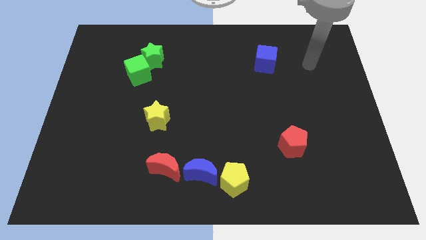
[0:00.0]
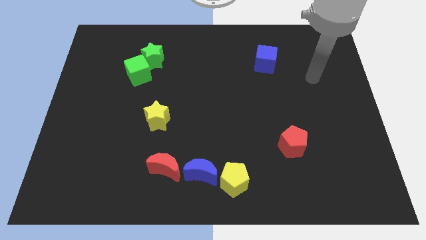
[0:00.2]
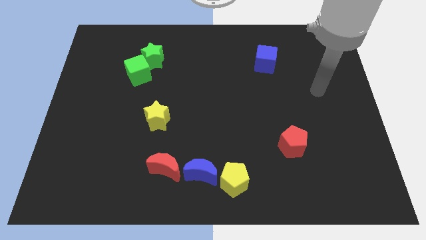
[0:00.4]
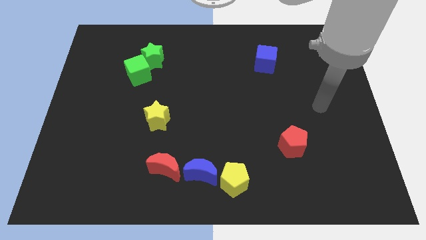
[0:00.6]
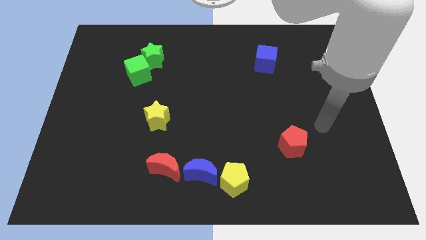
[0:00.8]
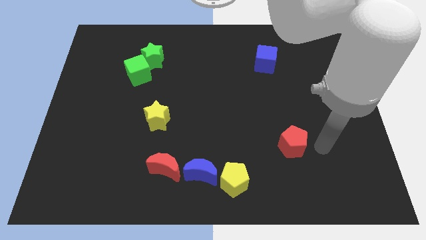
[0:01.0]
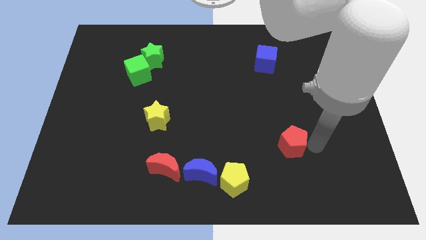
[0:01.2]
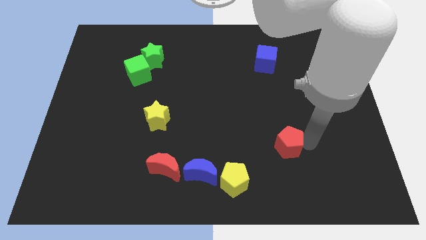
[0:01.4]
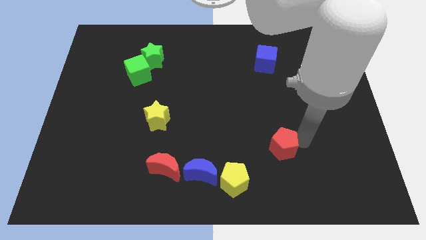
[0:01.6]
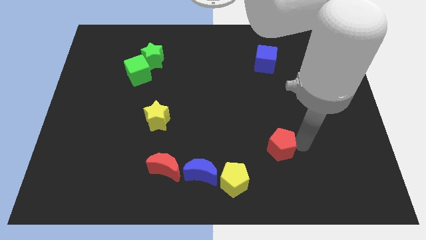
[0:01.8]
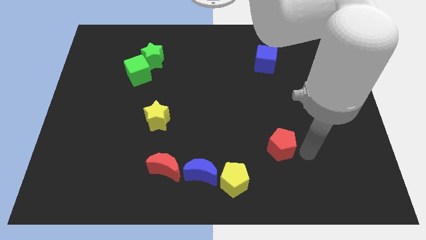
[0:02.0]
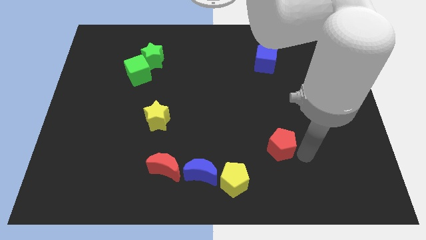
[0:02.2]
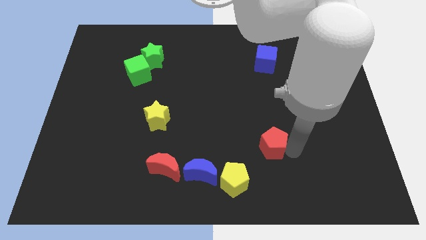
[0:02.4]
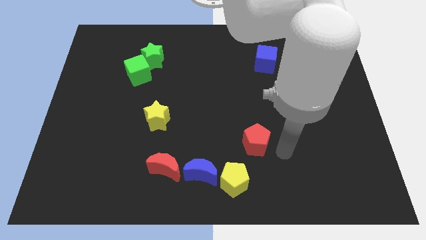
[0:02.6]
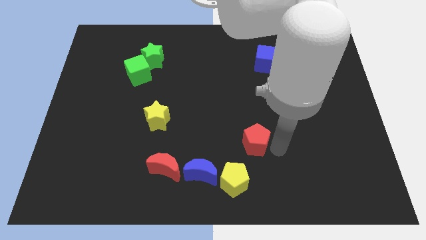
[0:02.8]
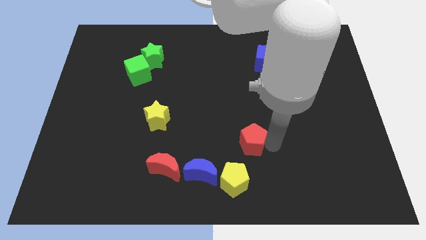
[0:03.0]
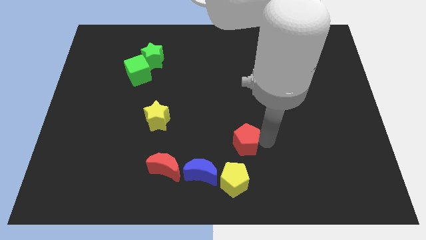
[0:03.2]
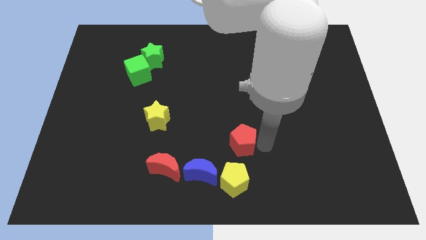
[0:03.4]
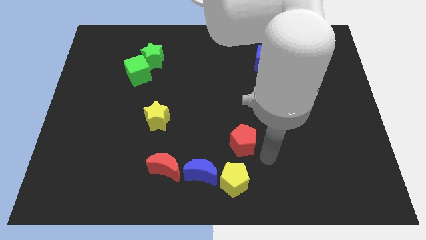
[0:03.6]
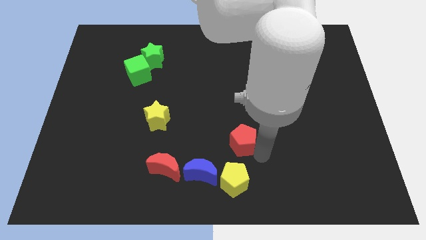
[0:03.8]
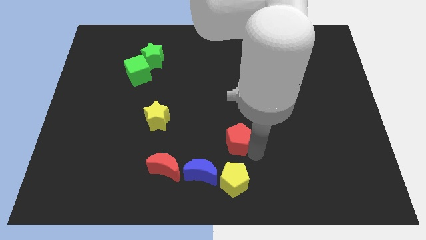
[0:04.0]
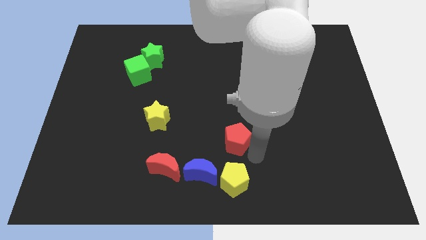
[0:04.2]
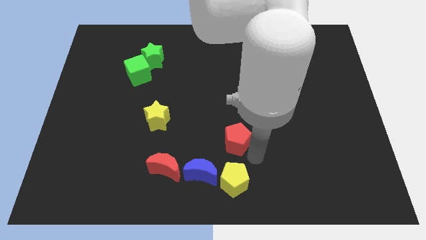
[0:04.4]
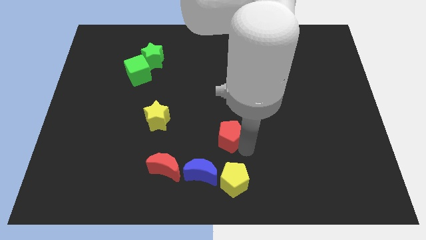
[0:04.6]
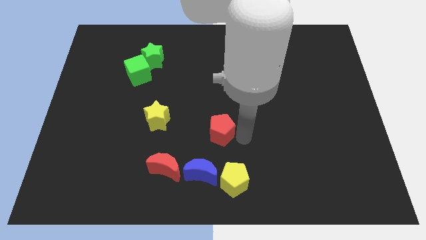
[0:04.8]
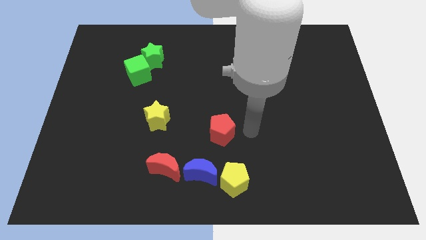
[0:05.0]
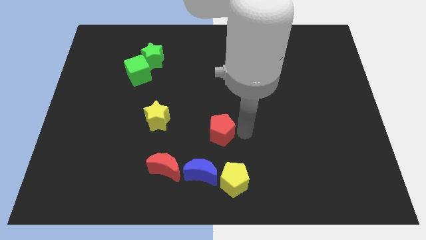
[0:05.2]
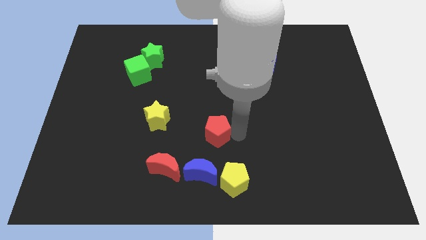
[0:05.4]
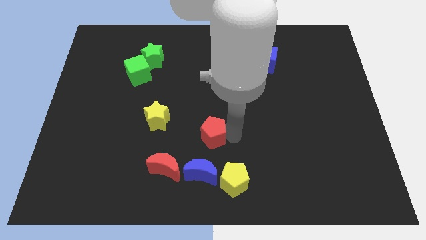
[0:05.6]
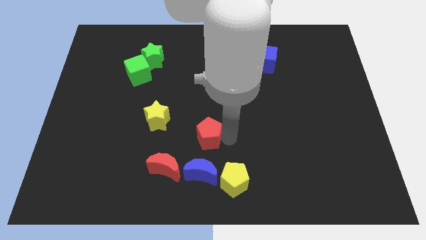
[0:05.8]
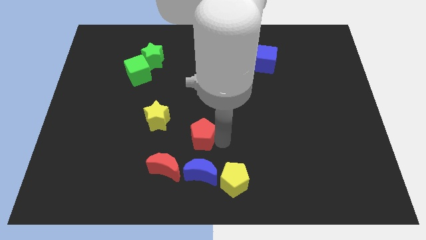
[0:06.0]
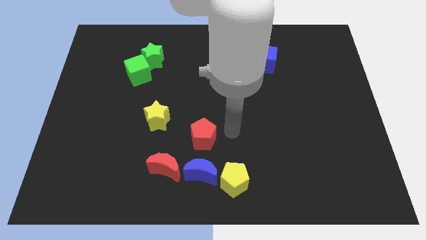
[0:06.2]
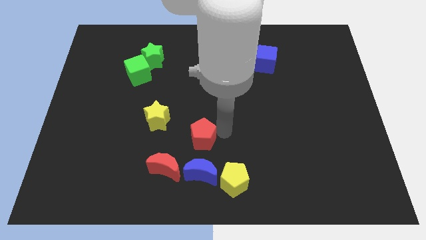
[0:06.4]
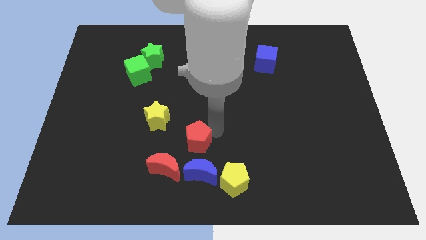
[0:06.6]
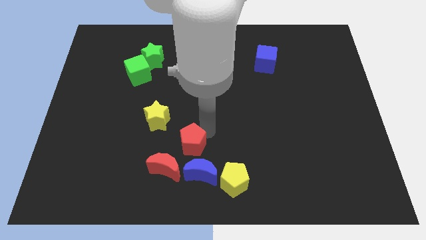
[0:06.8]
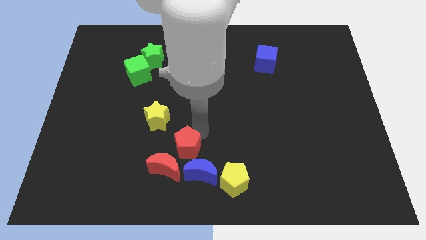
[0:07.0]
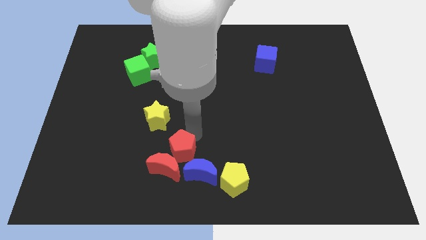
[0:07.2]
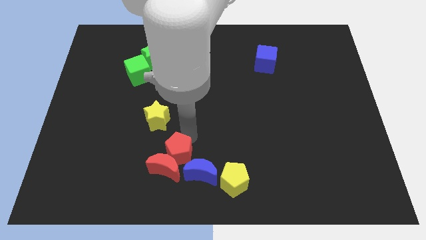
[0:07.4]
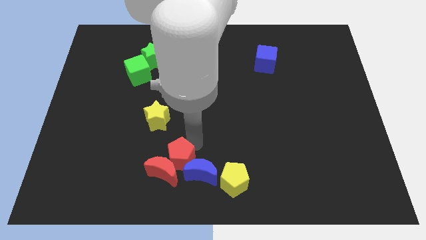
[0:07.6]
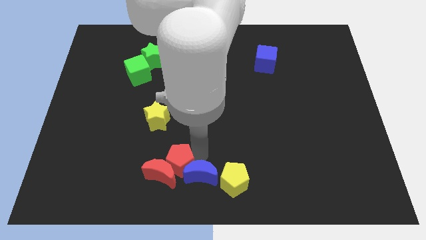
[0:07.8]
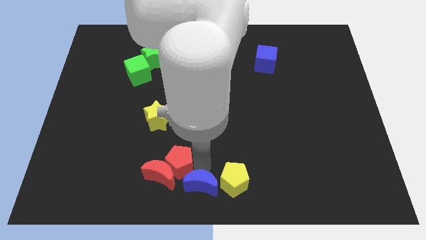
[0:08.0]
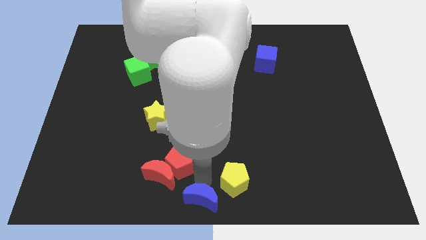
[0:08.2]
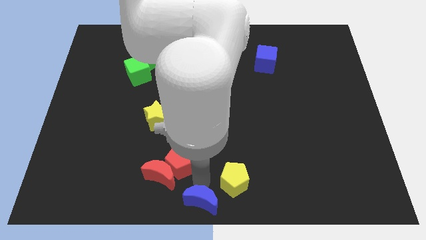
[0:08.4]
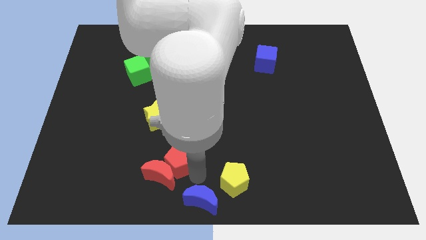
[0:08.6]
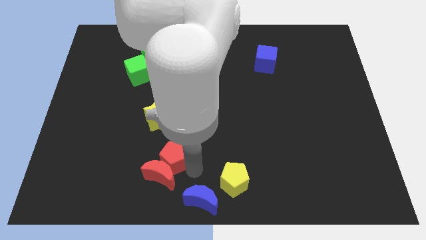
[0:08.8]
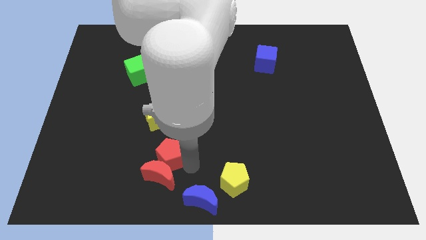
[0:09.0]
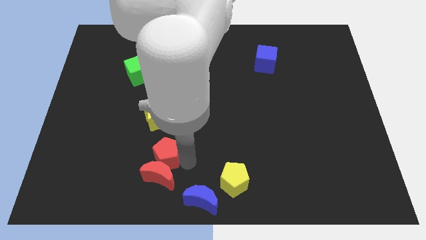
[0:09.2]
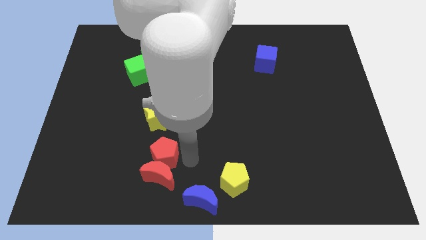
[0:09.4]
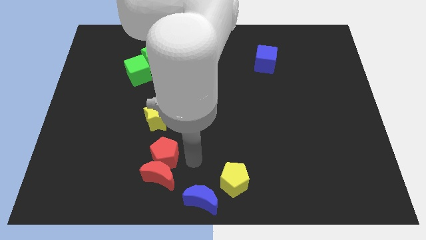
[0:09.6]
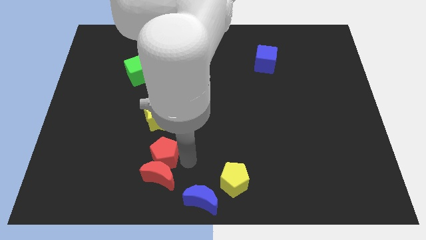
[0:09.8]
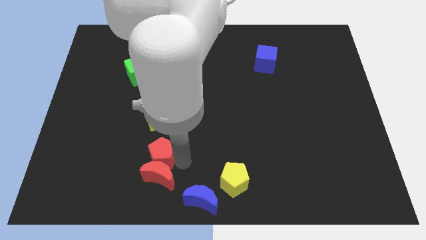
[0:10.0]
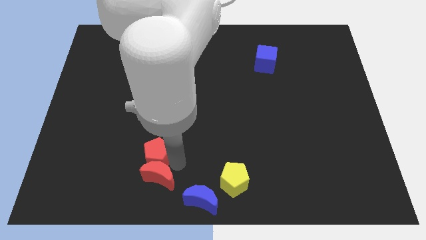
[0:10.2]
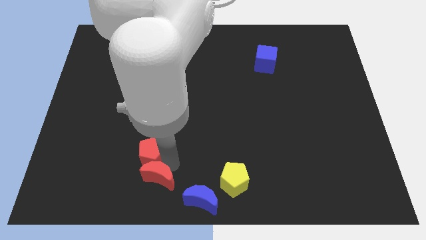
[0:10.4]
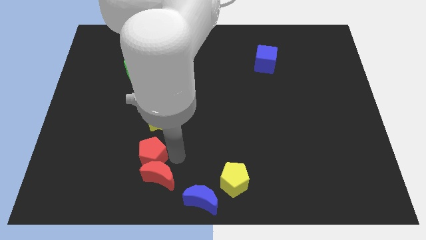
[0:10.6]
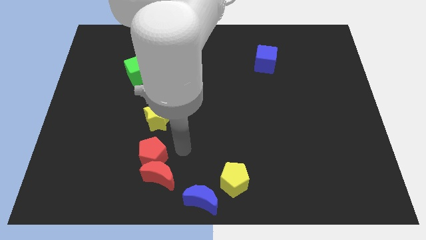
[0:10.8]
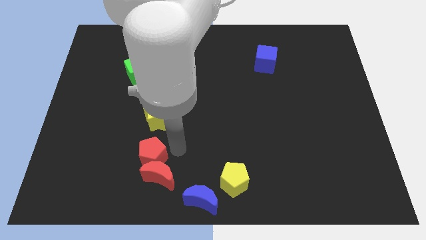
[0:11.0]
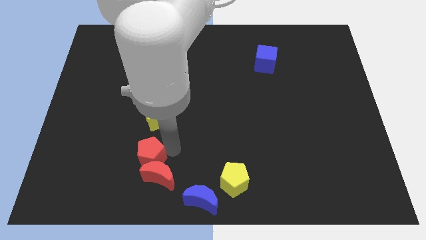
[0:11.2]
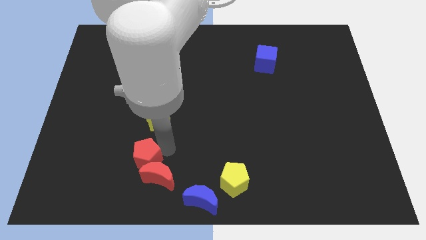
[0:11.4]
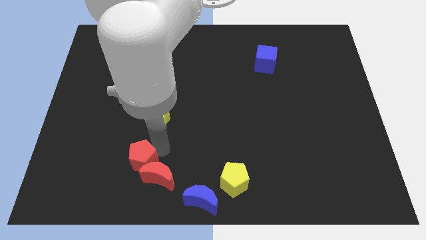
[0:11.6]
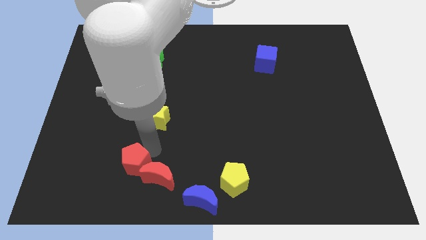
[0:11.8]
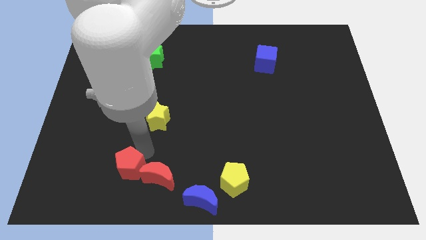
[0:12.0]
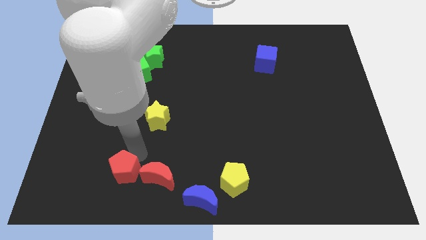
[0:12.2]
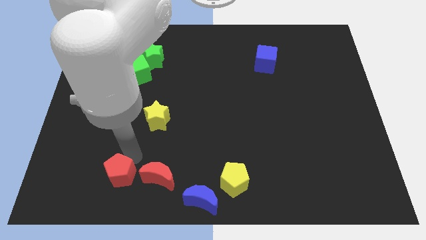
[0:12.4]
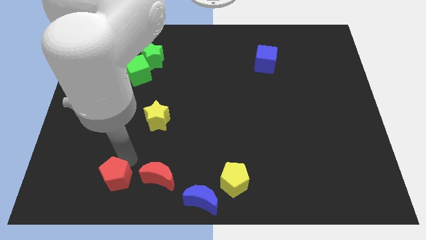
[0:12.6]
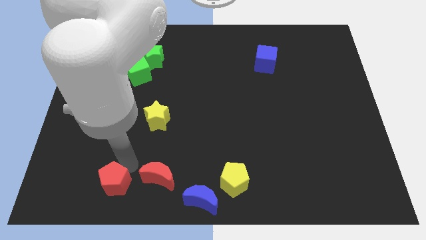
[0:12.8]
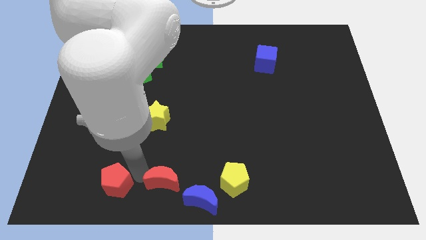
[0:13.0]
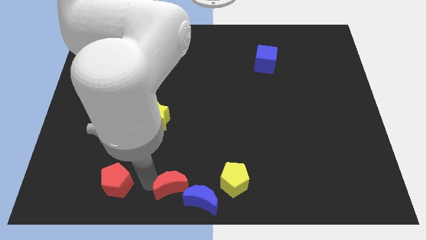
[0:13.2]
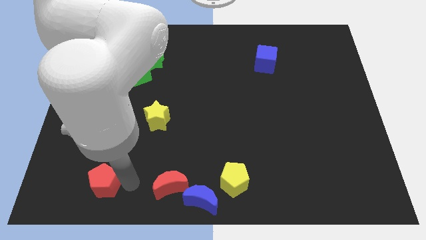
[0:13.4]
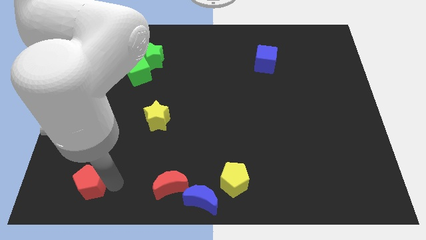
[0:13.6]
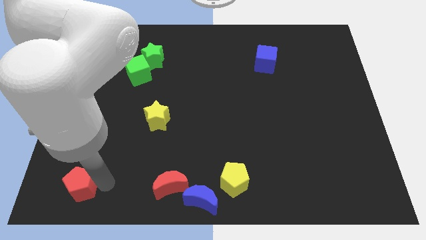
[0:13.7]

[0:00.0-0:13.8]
push the red pentagon to the bottom left corner
